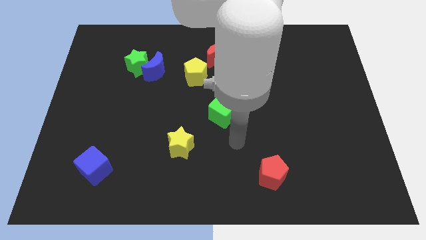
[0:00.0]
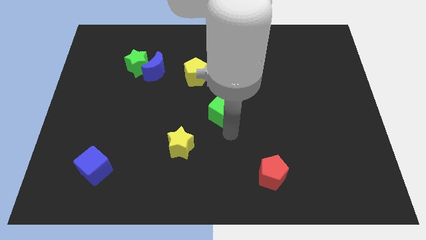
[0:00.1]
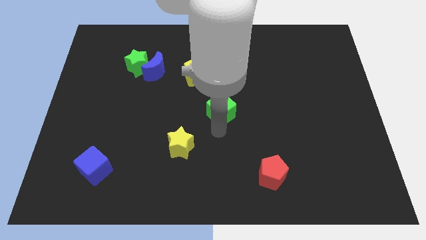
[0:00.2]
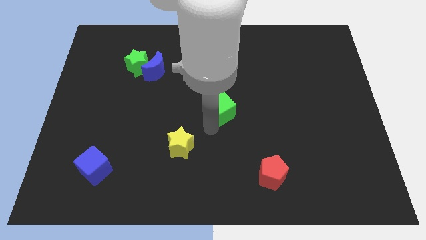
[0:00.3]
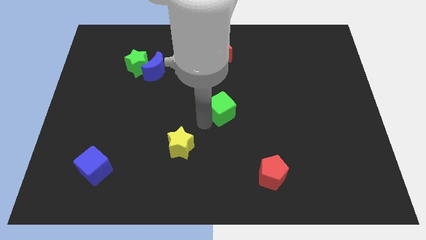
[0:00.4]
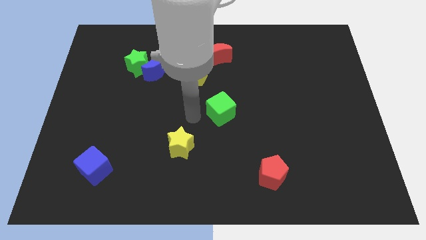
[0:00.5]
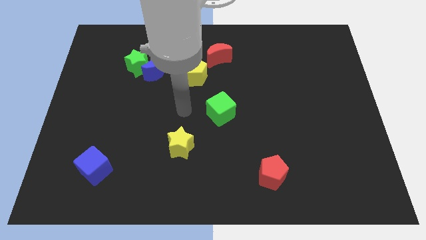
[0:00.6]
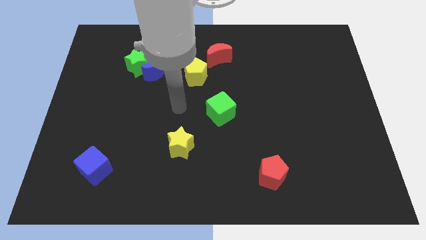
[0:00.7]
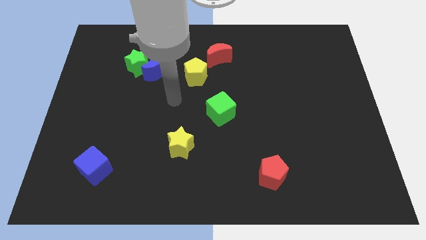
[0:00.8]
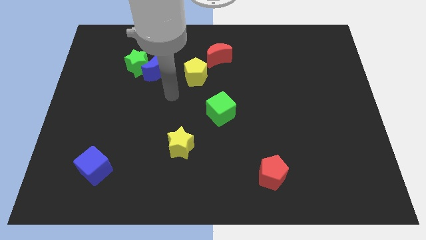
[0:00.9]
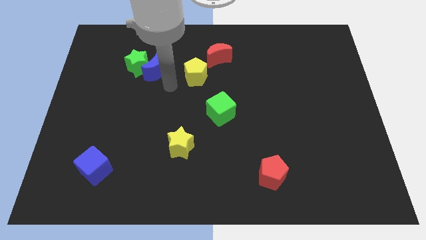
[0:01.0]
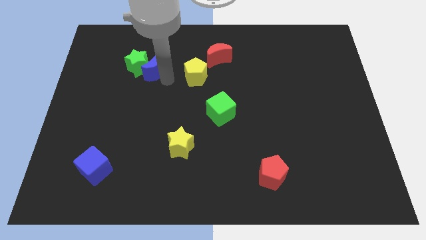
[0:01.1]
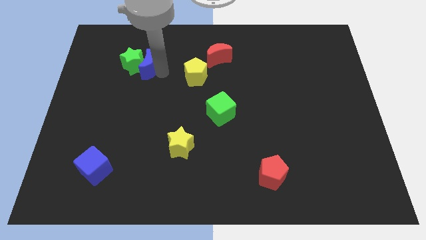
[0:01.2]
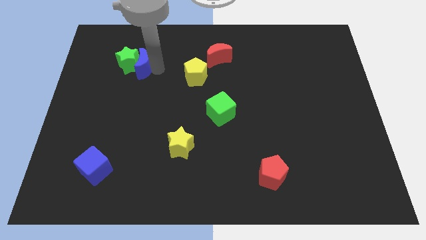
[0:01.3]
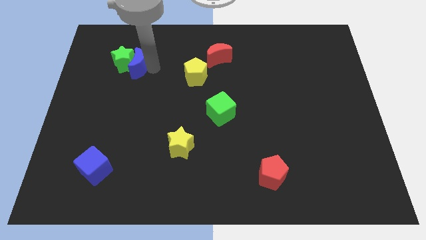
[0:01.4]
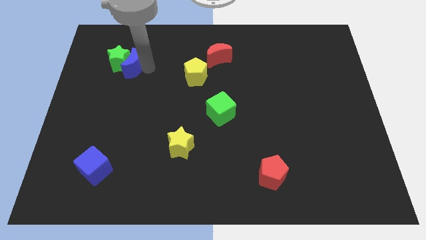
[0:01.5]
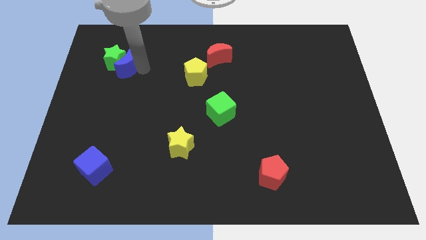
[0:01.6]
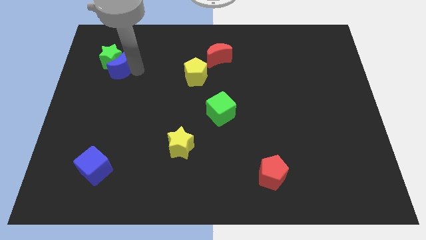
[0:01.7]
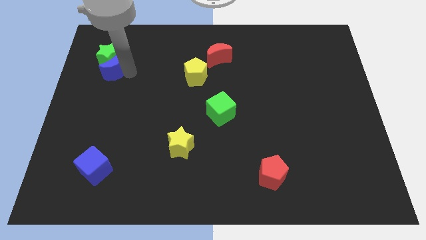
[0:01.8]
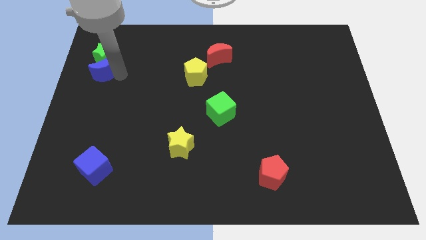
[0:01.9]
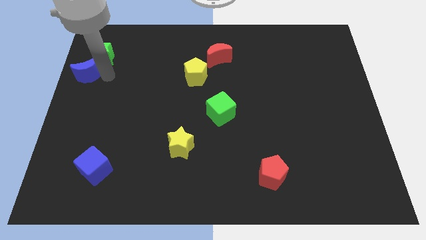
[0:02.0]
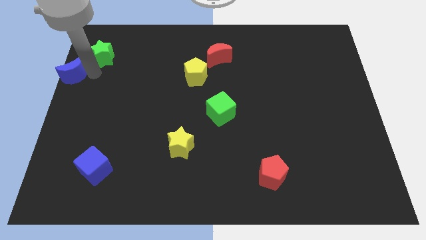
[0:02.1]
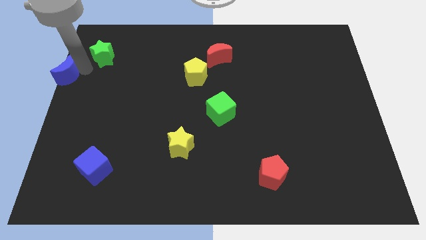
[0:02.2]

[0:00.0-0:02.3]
pull the green star apart from the blue moon

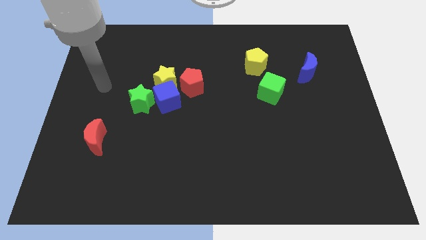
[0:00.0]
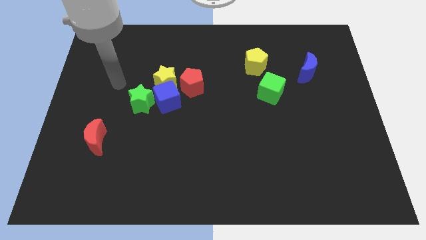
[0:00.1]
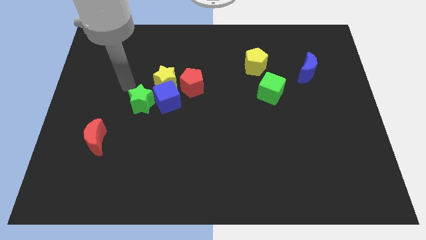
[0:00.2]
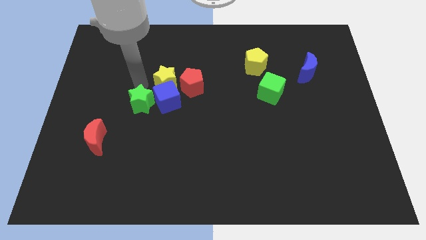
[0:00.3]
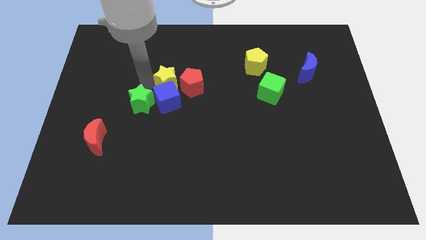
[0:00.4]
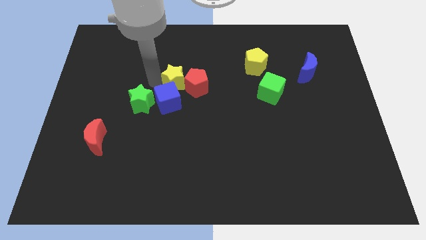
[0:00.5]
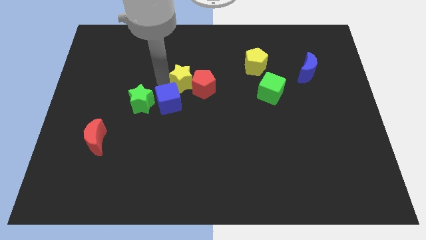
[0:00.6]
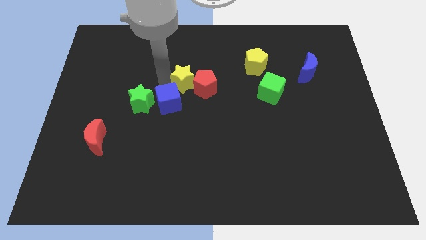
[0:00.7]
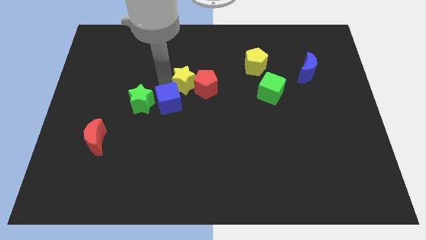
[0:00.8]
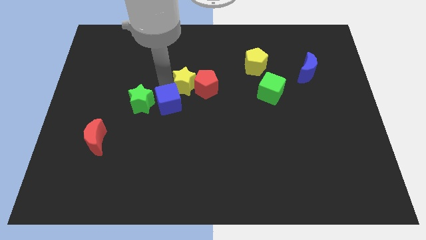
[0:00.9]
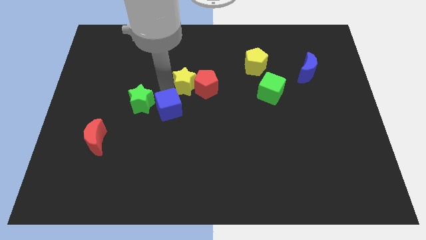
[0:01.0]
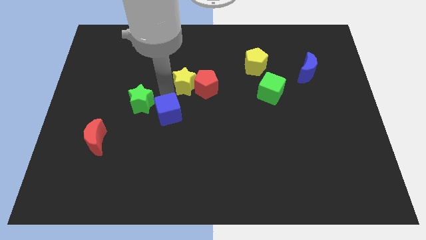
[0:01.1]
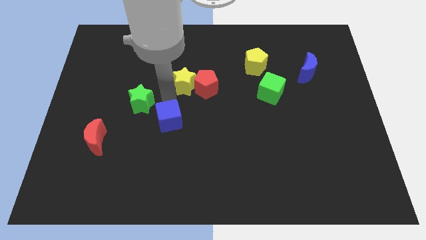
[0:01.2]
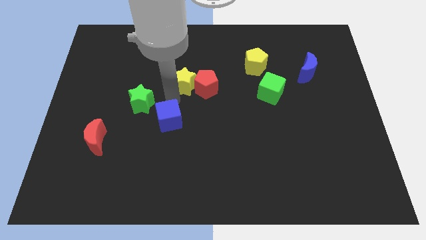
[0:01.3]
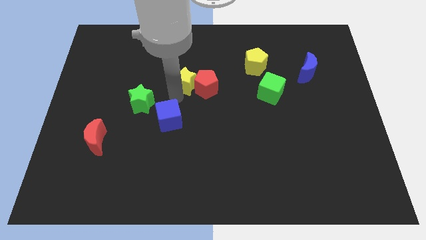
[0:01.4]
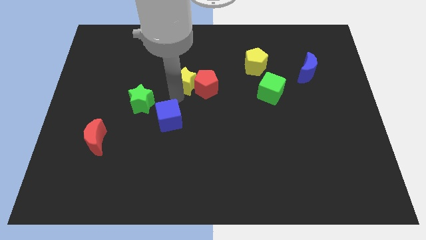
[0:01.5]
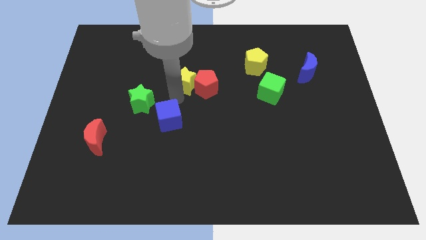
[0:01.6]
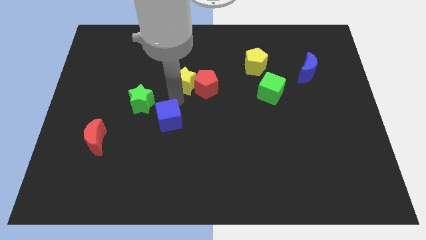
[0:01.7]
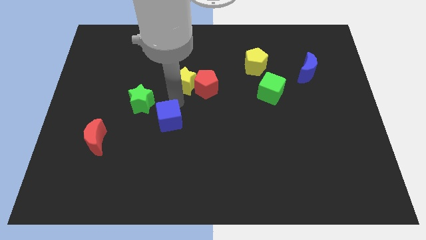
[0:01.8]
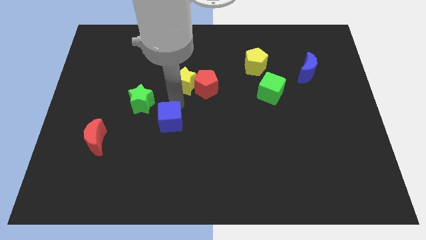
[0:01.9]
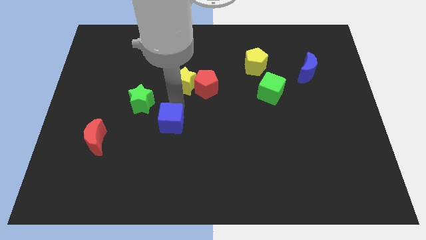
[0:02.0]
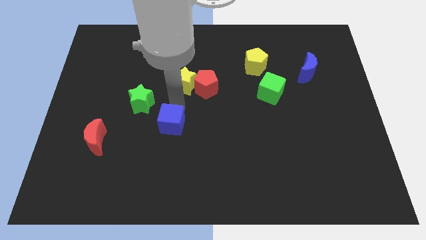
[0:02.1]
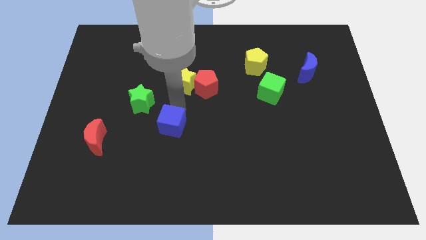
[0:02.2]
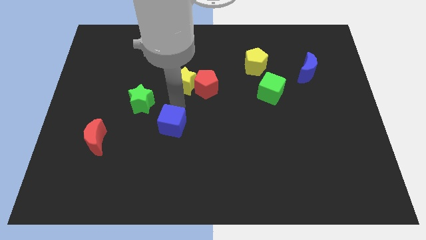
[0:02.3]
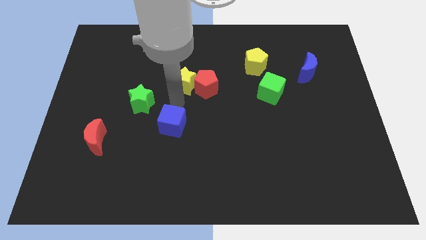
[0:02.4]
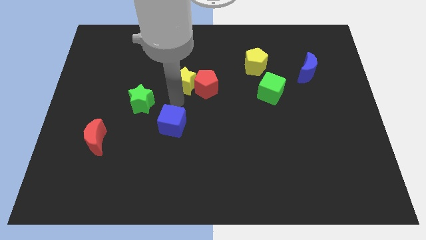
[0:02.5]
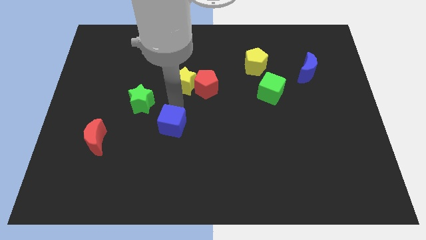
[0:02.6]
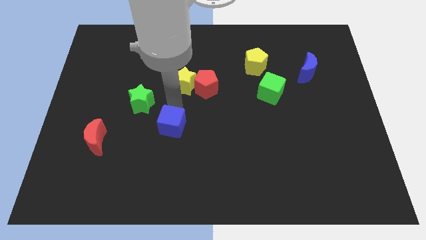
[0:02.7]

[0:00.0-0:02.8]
pull the blue cube apart from the yellow star, green star, and red pentagon

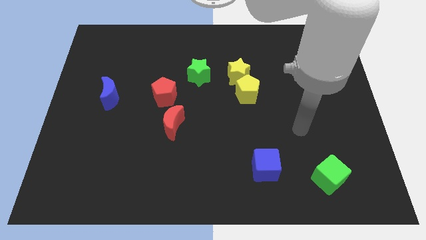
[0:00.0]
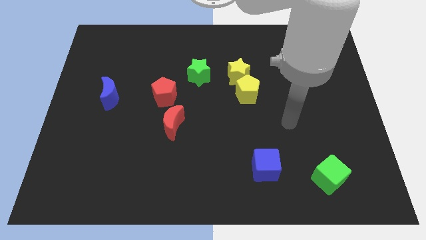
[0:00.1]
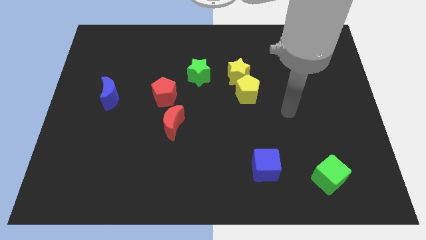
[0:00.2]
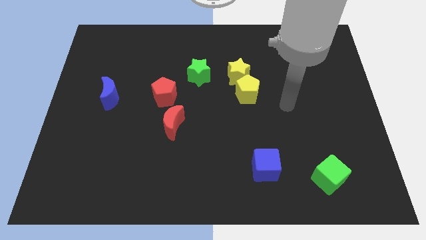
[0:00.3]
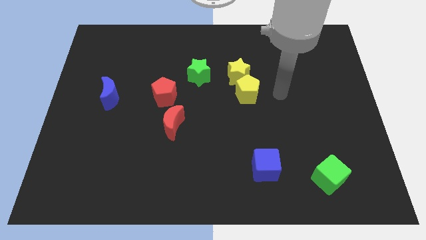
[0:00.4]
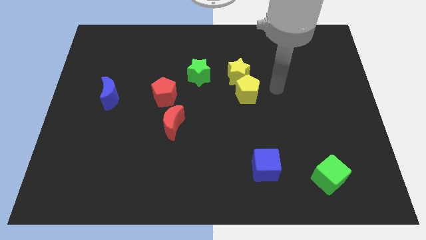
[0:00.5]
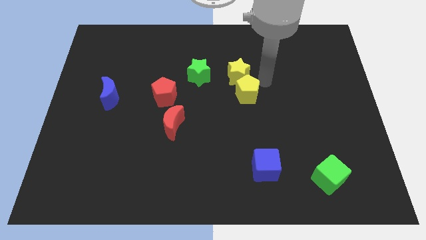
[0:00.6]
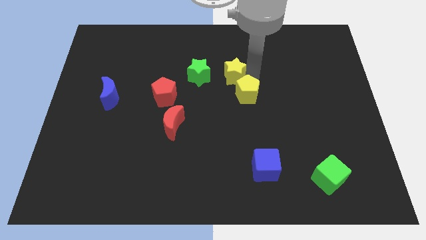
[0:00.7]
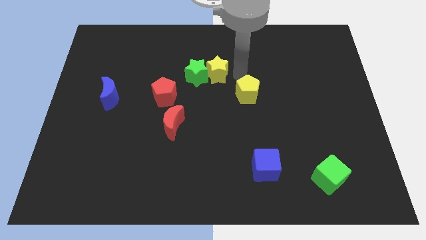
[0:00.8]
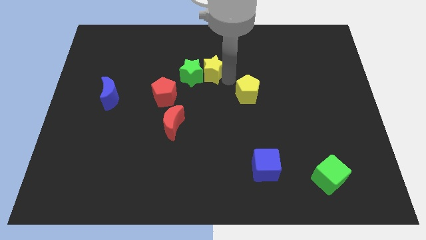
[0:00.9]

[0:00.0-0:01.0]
move the yellow pentagon away from the yellow star

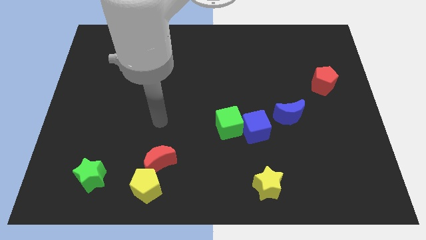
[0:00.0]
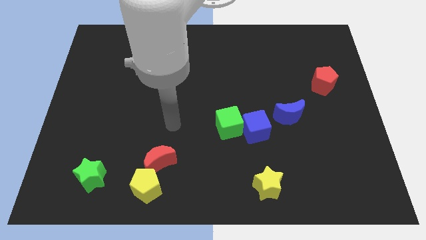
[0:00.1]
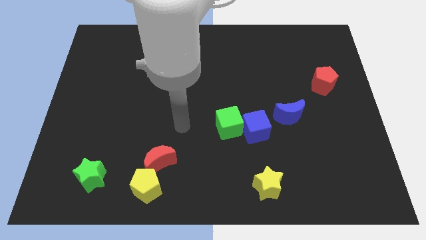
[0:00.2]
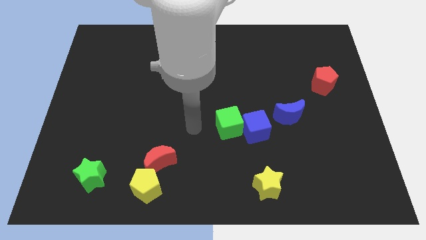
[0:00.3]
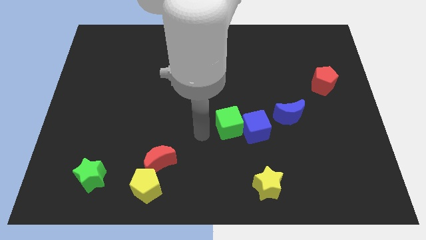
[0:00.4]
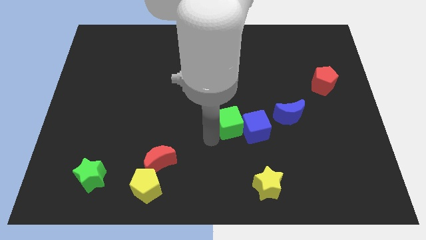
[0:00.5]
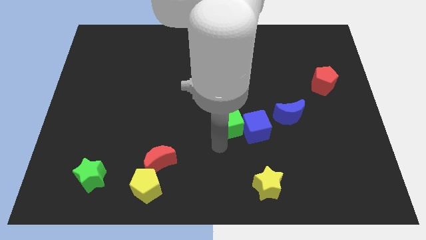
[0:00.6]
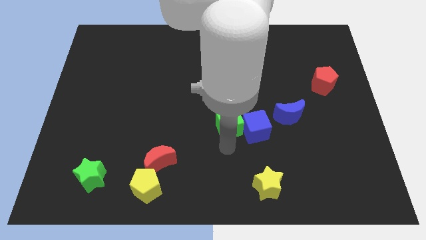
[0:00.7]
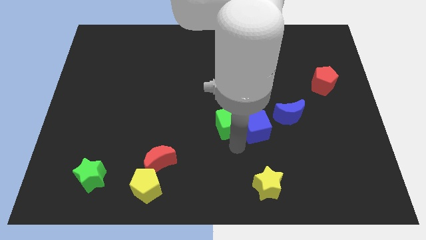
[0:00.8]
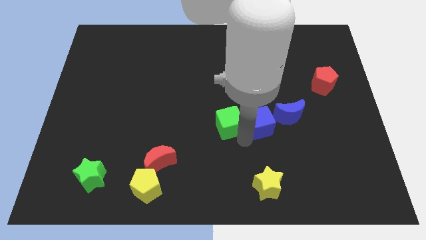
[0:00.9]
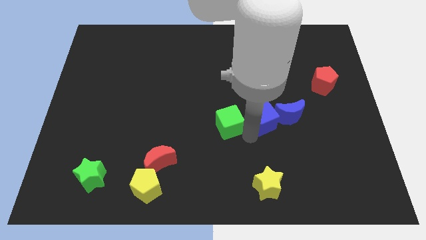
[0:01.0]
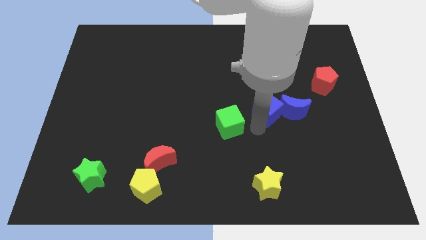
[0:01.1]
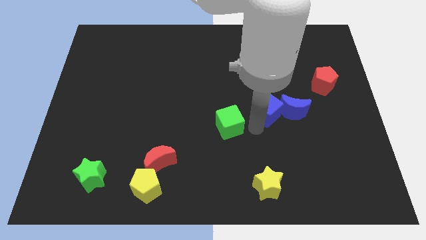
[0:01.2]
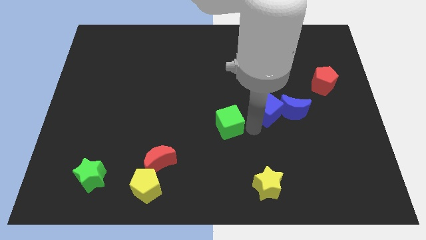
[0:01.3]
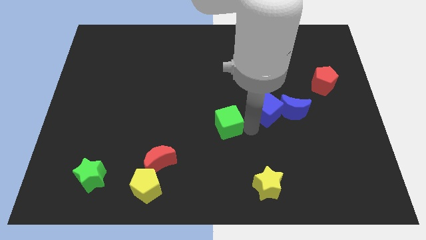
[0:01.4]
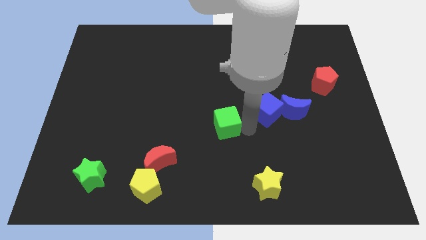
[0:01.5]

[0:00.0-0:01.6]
move the green cube away from the blue cube

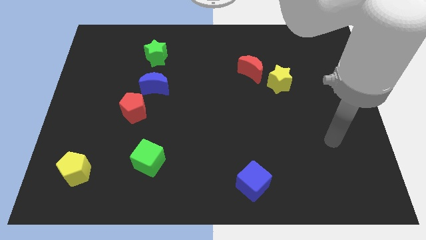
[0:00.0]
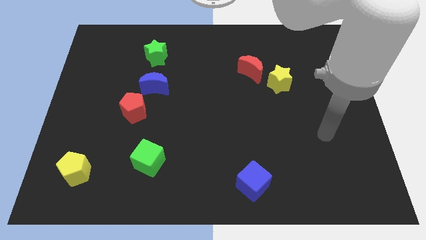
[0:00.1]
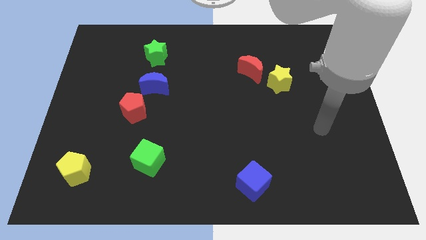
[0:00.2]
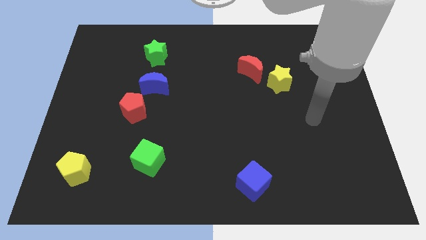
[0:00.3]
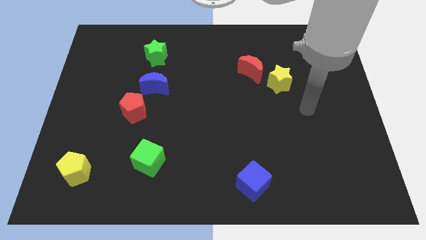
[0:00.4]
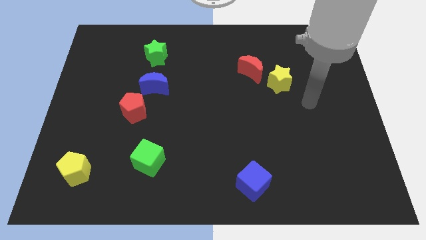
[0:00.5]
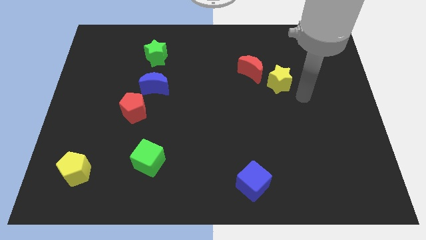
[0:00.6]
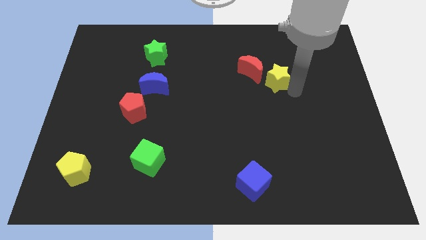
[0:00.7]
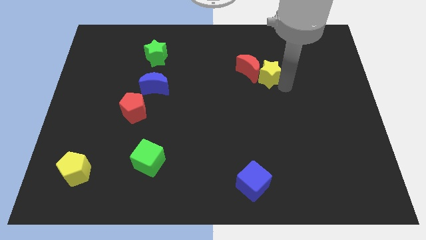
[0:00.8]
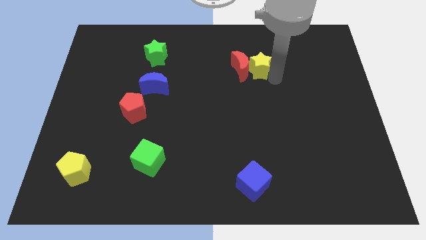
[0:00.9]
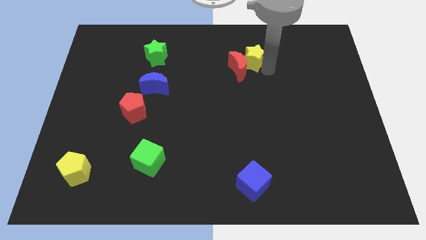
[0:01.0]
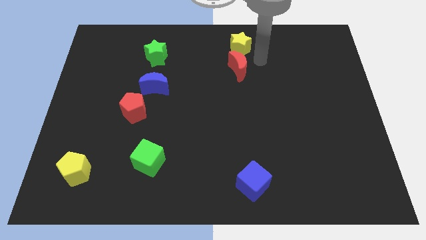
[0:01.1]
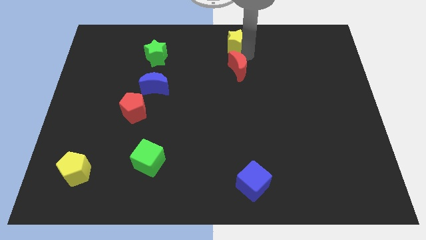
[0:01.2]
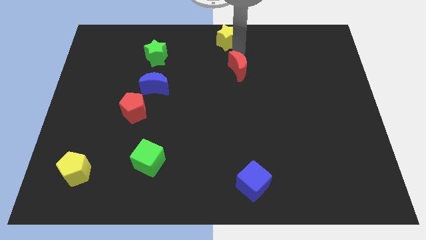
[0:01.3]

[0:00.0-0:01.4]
pull the red moon apart from the yellow star

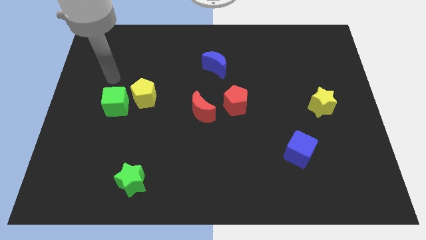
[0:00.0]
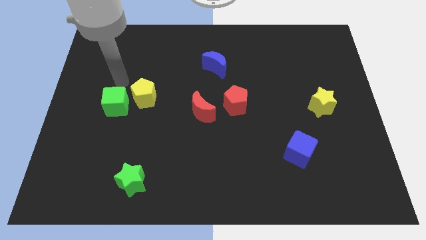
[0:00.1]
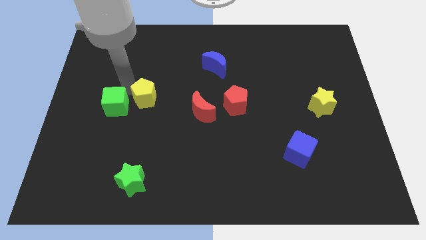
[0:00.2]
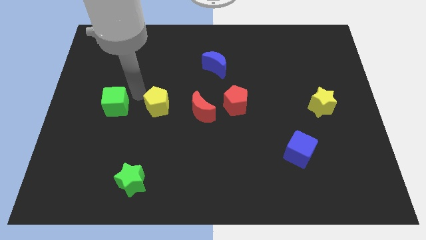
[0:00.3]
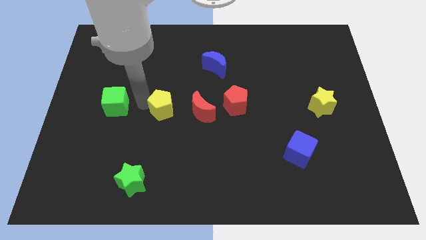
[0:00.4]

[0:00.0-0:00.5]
separate the green cube from the yellow pentagon
